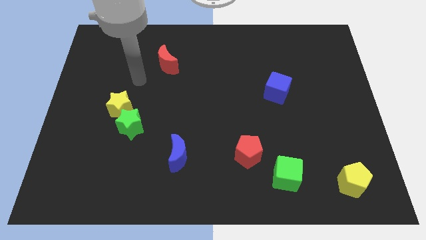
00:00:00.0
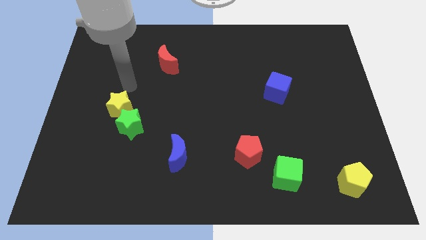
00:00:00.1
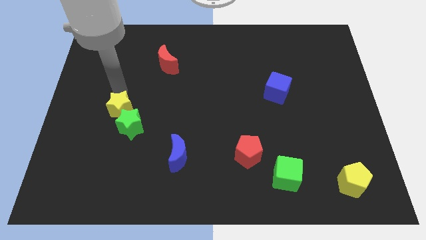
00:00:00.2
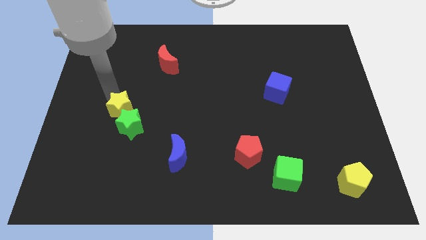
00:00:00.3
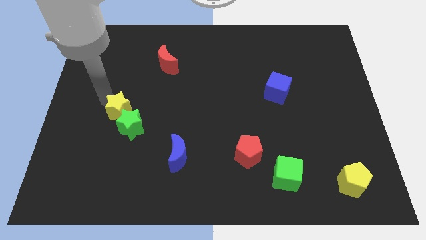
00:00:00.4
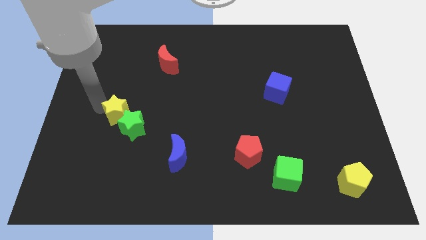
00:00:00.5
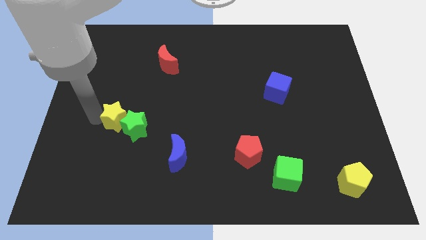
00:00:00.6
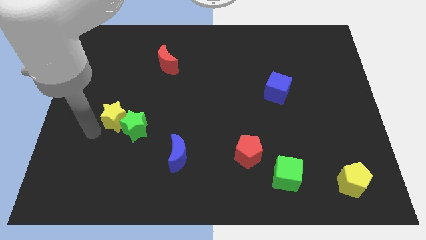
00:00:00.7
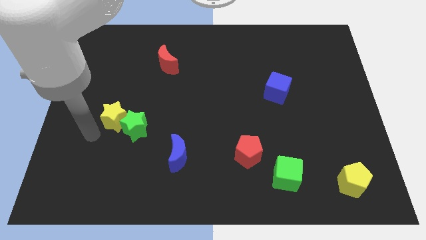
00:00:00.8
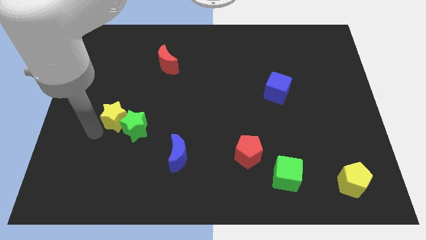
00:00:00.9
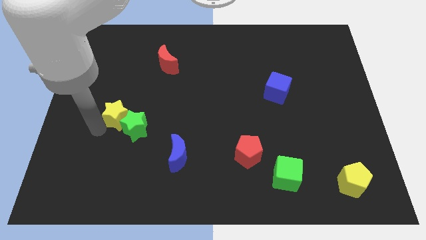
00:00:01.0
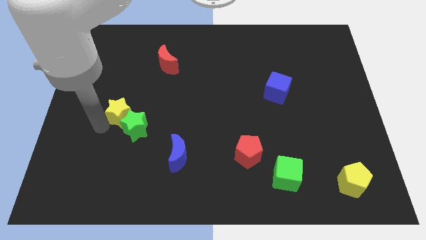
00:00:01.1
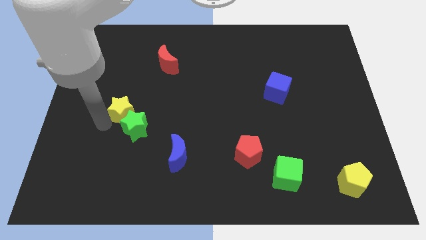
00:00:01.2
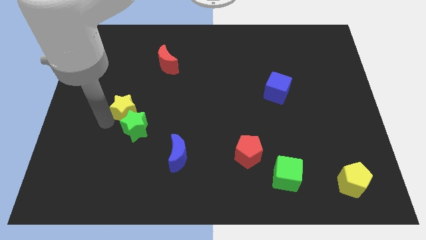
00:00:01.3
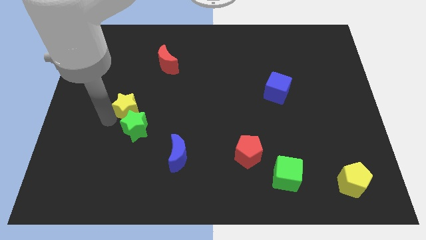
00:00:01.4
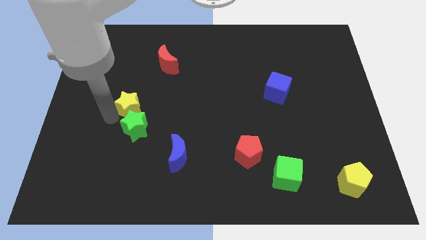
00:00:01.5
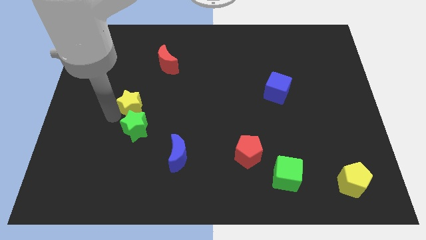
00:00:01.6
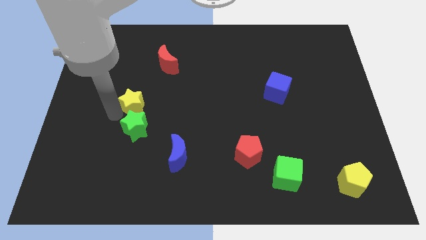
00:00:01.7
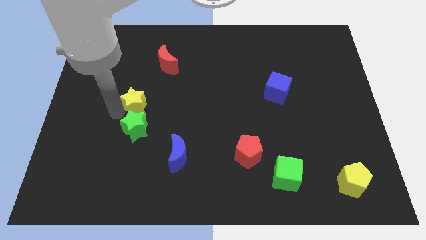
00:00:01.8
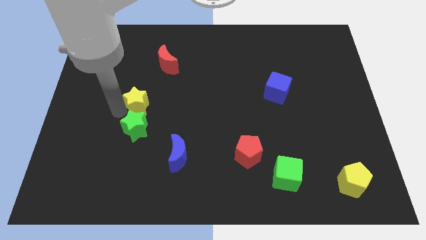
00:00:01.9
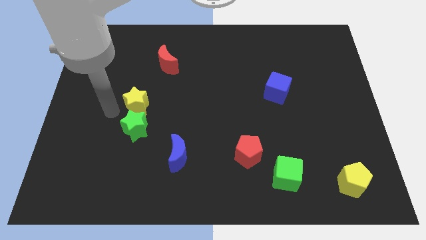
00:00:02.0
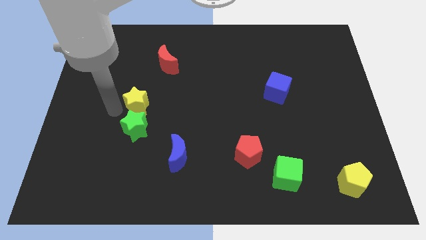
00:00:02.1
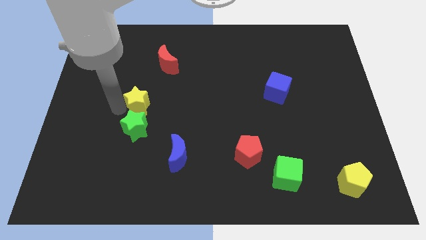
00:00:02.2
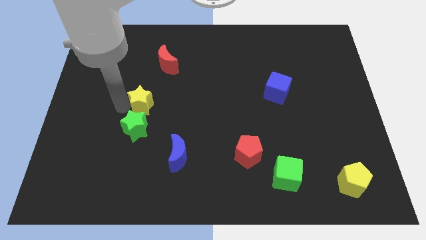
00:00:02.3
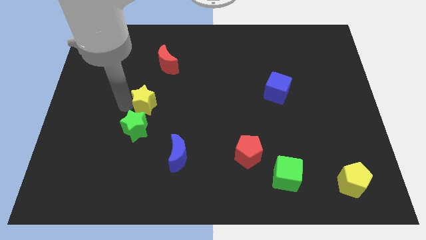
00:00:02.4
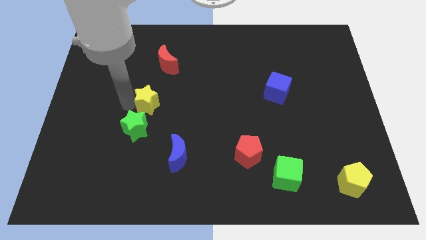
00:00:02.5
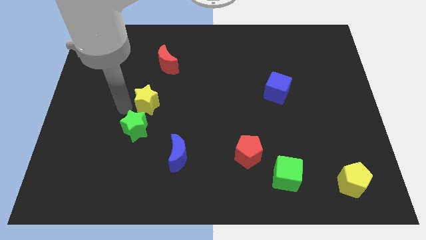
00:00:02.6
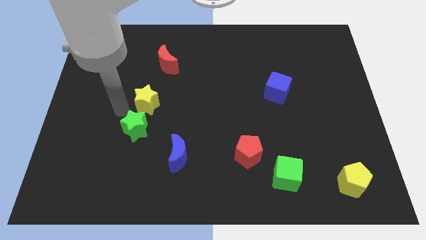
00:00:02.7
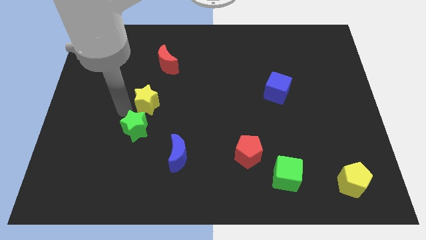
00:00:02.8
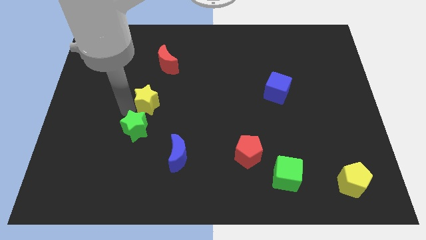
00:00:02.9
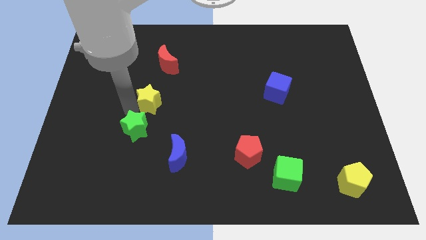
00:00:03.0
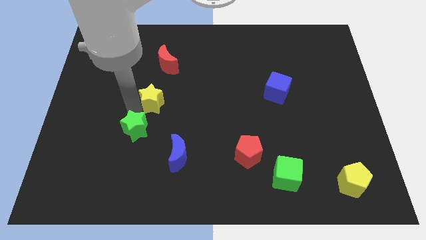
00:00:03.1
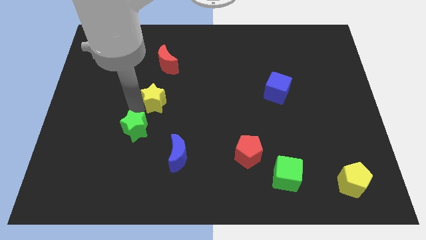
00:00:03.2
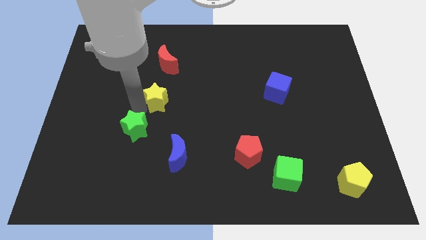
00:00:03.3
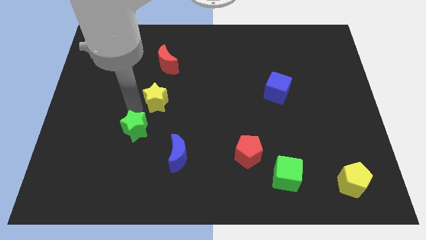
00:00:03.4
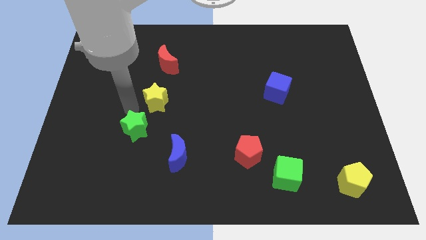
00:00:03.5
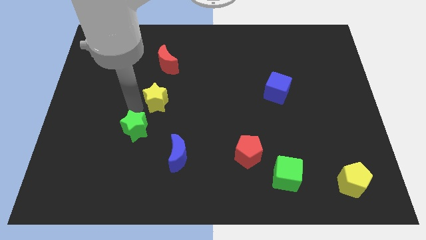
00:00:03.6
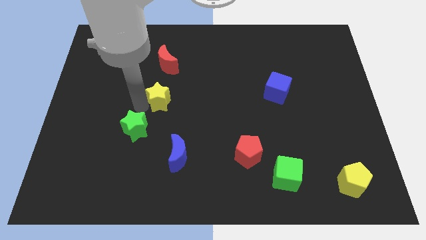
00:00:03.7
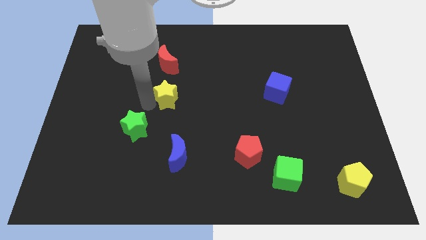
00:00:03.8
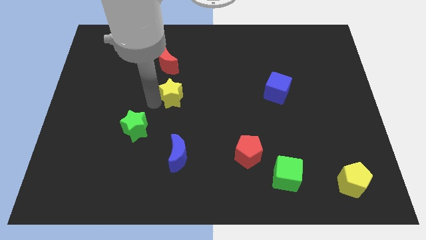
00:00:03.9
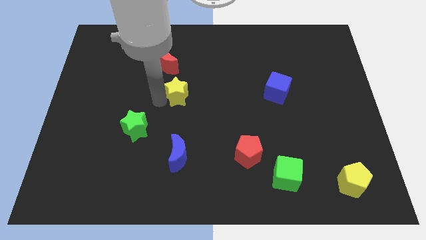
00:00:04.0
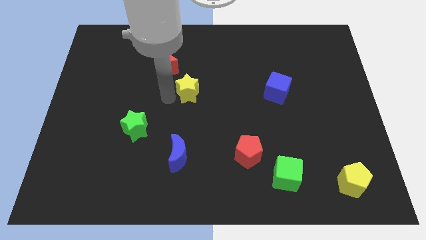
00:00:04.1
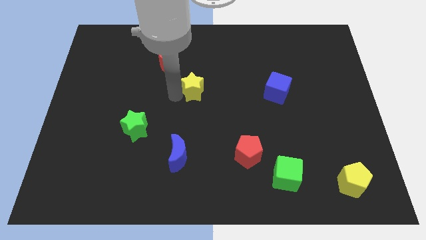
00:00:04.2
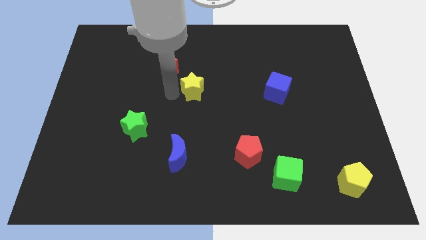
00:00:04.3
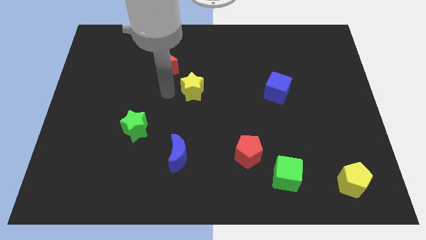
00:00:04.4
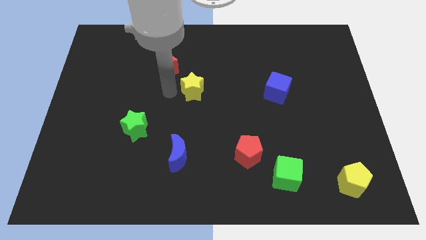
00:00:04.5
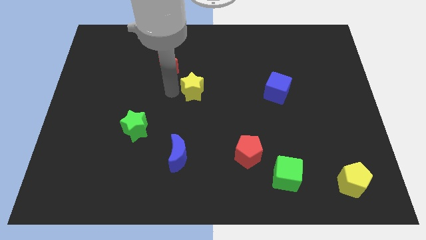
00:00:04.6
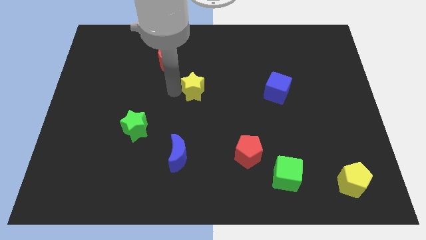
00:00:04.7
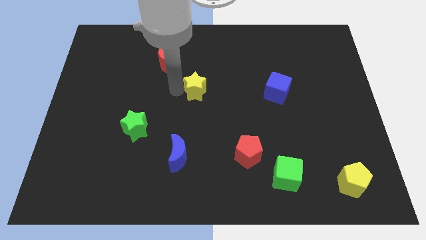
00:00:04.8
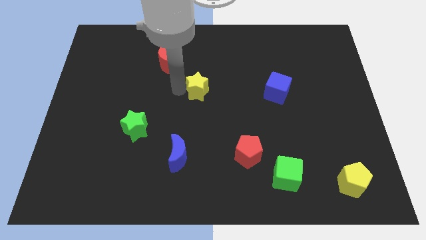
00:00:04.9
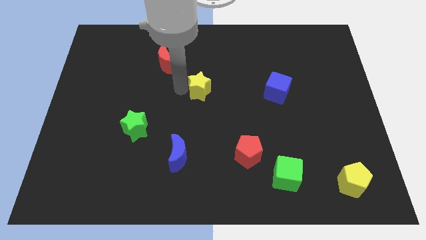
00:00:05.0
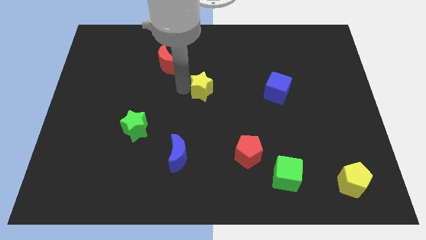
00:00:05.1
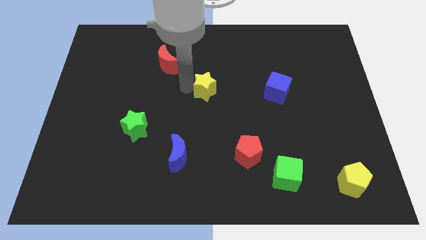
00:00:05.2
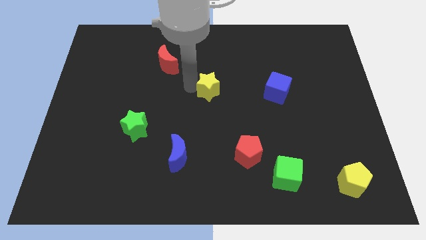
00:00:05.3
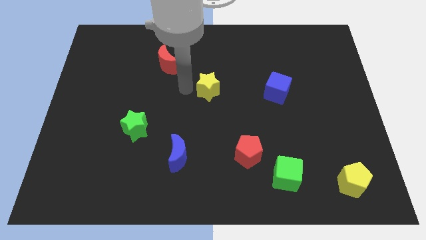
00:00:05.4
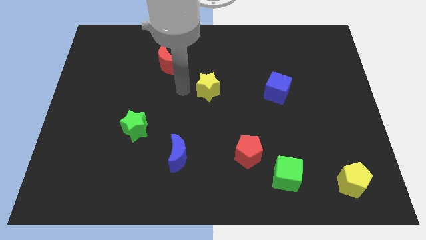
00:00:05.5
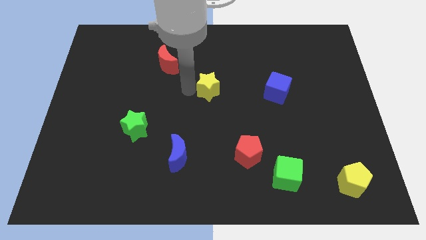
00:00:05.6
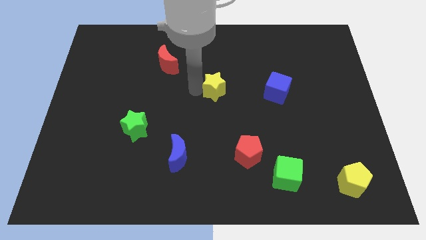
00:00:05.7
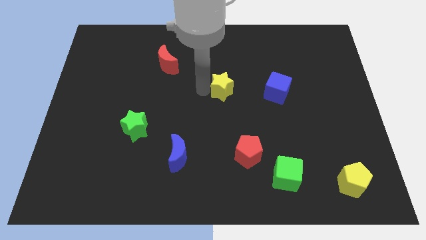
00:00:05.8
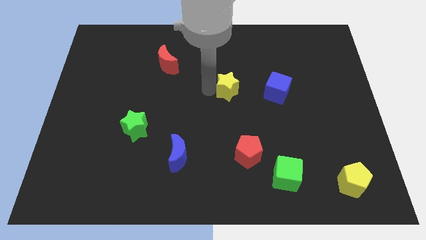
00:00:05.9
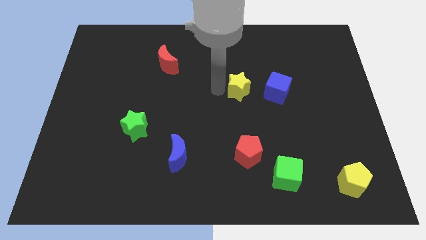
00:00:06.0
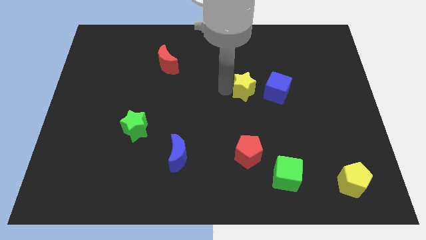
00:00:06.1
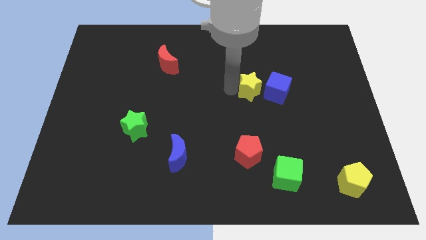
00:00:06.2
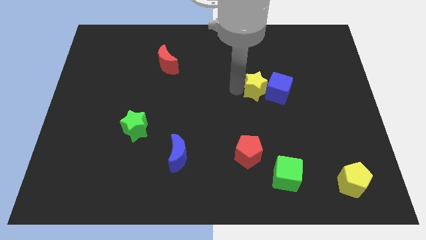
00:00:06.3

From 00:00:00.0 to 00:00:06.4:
move the yellow star next to the blue cube

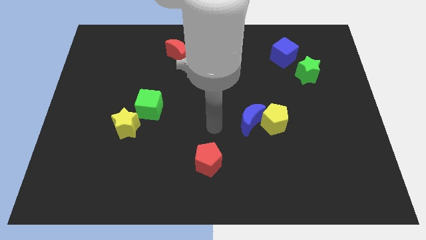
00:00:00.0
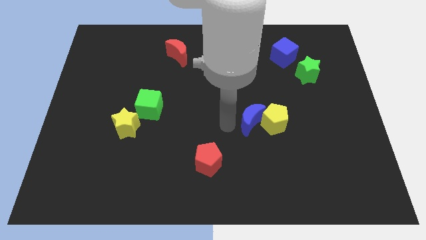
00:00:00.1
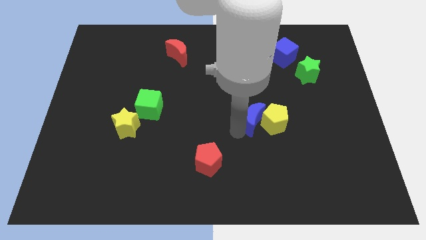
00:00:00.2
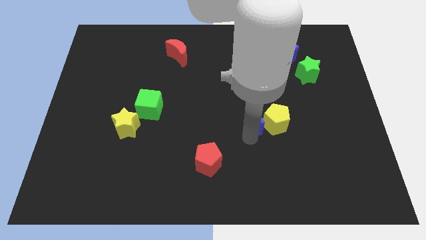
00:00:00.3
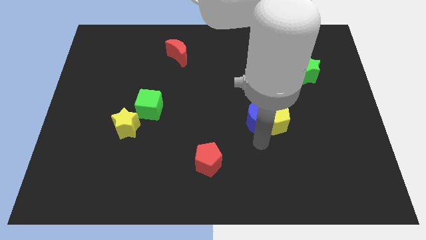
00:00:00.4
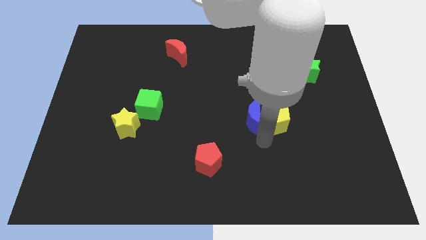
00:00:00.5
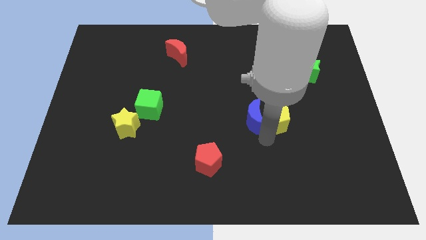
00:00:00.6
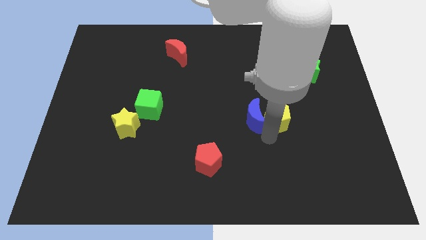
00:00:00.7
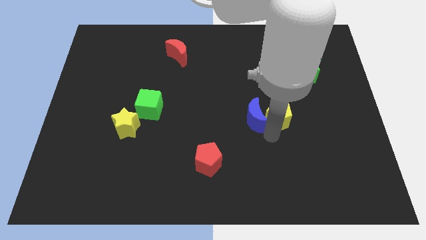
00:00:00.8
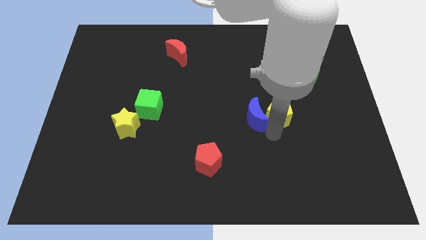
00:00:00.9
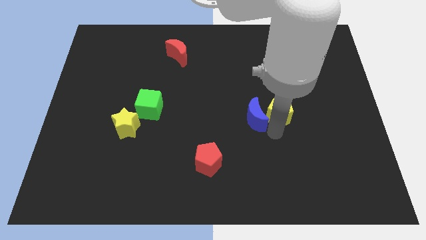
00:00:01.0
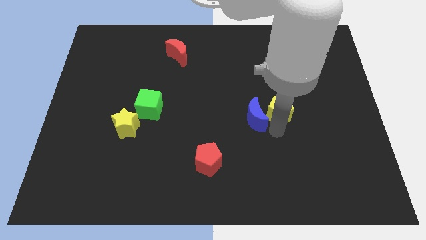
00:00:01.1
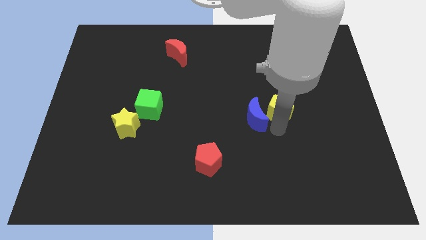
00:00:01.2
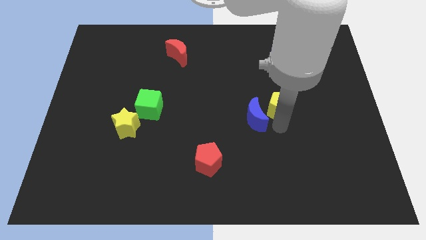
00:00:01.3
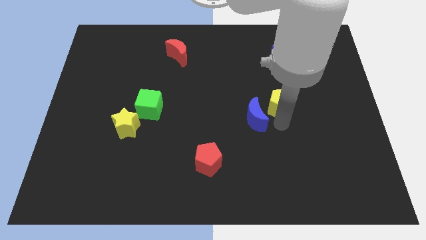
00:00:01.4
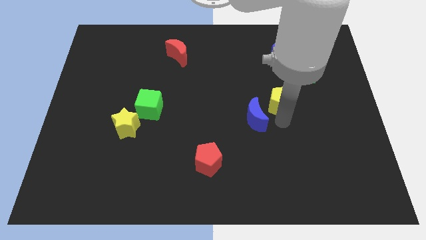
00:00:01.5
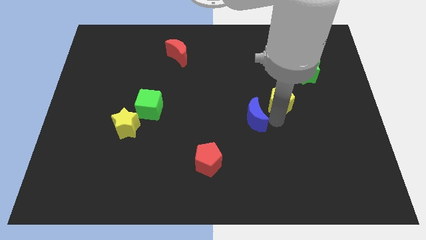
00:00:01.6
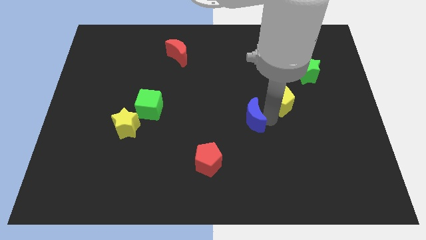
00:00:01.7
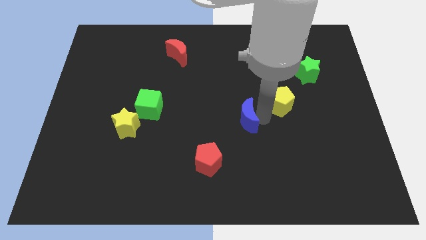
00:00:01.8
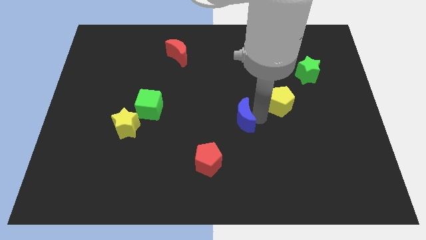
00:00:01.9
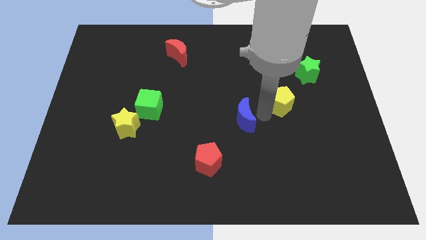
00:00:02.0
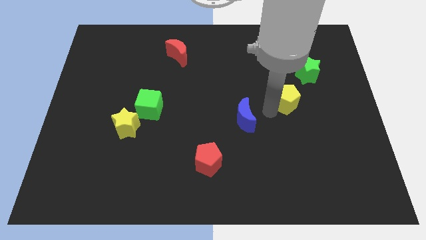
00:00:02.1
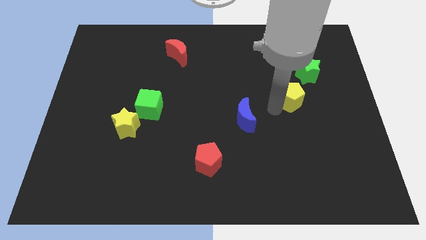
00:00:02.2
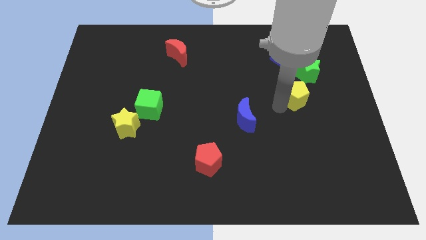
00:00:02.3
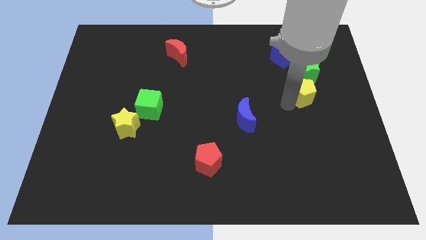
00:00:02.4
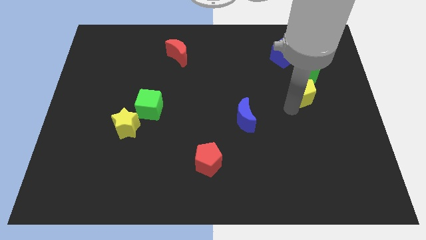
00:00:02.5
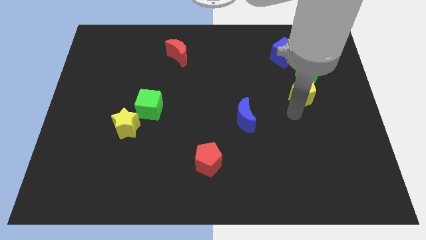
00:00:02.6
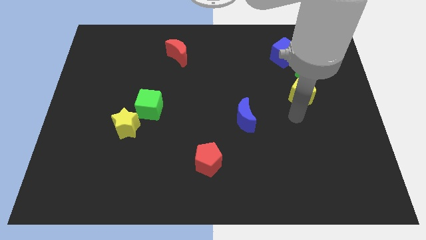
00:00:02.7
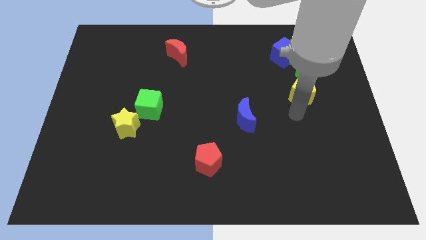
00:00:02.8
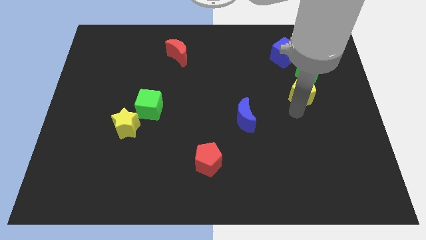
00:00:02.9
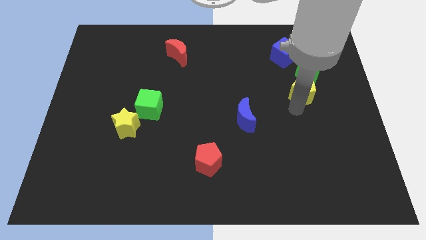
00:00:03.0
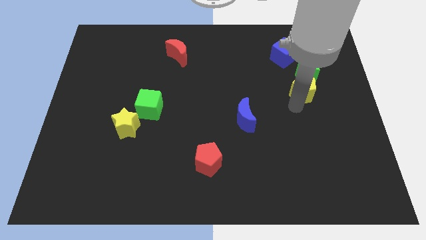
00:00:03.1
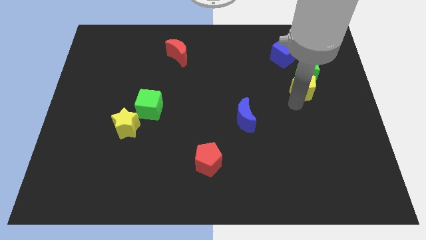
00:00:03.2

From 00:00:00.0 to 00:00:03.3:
push the yellow pentagon to the green star
